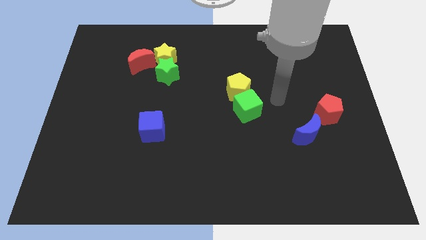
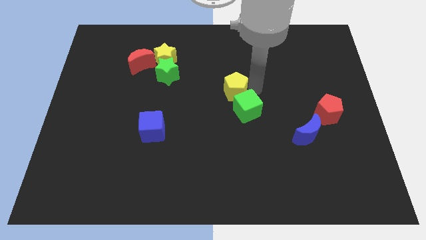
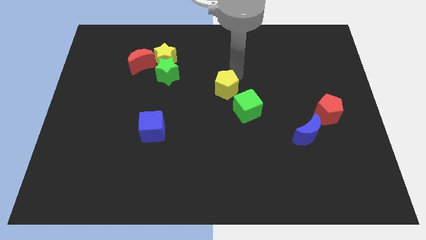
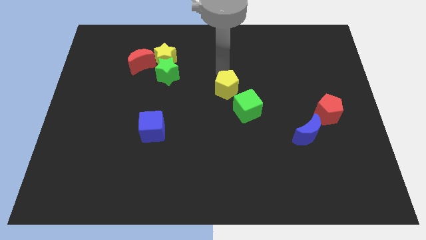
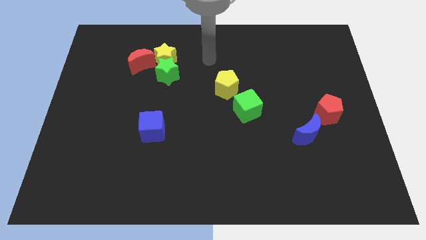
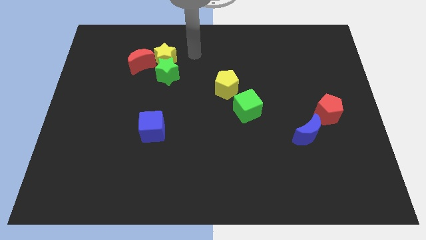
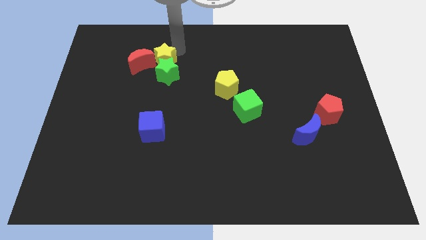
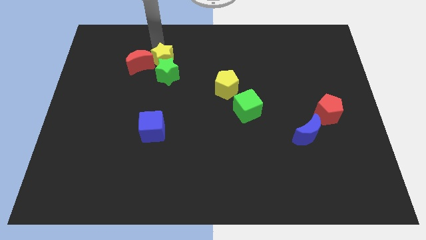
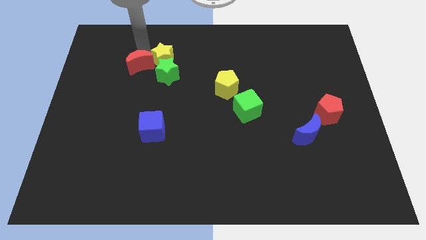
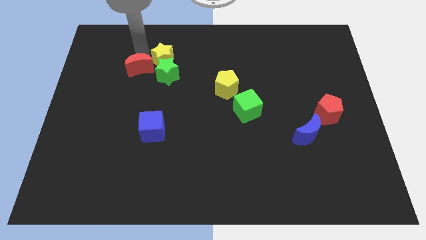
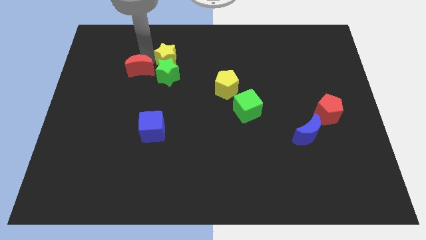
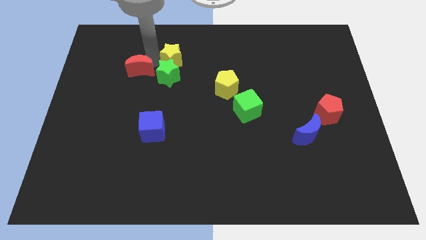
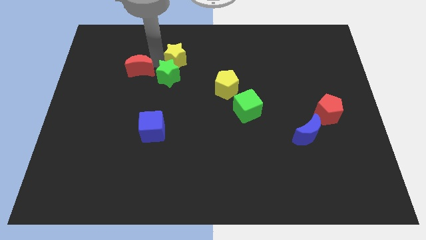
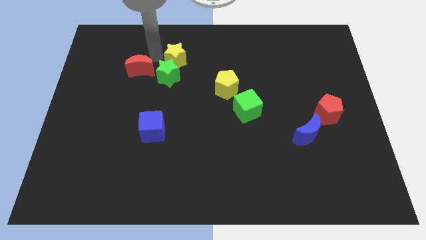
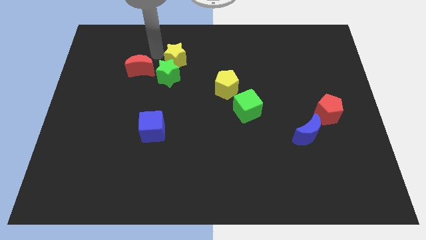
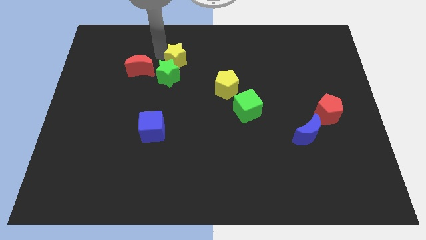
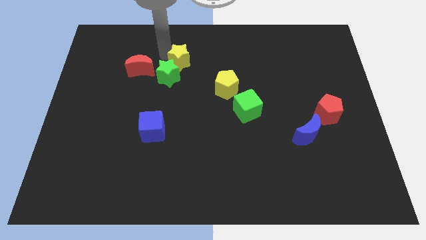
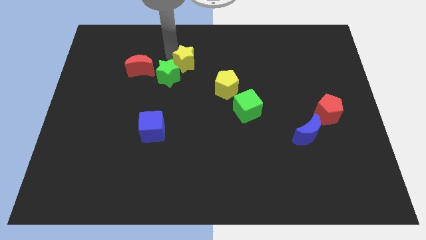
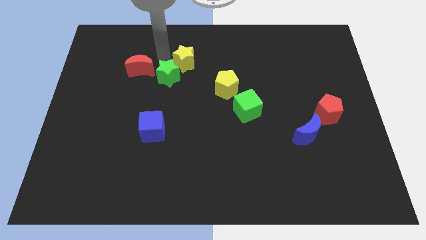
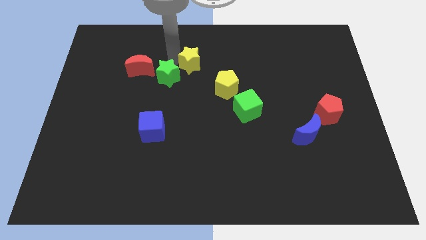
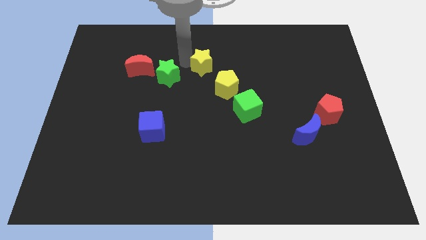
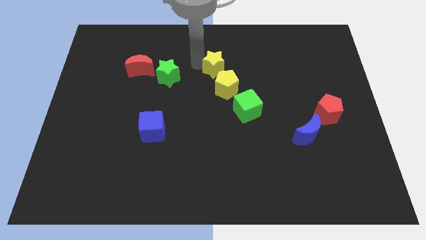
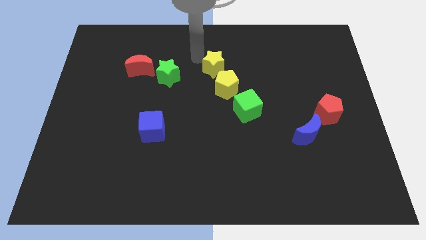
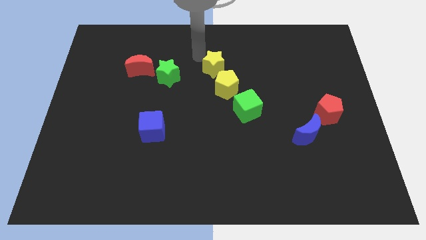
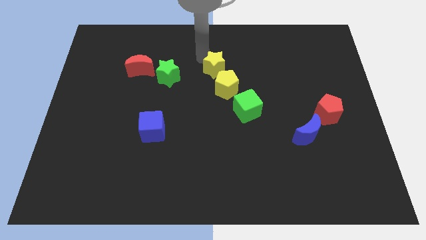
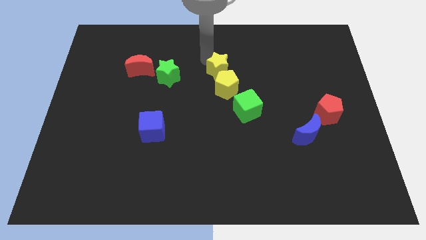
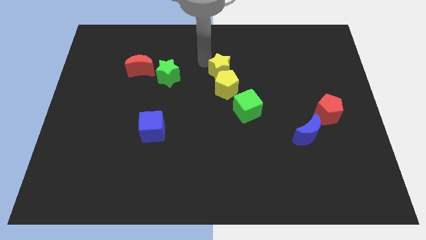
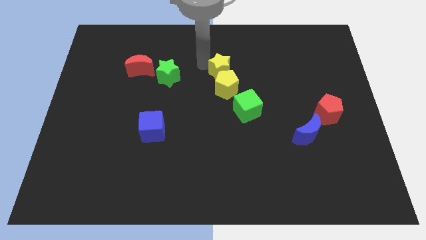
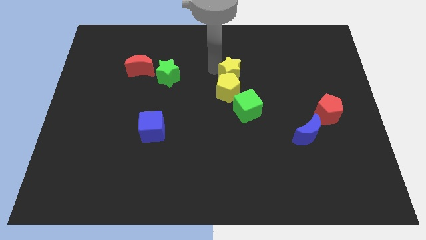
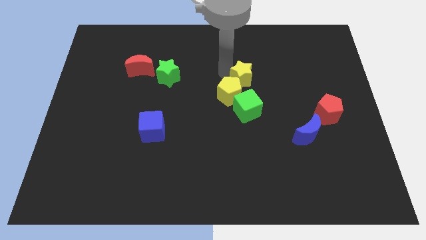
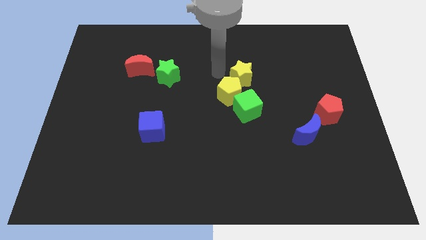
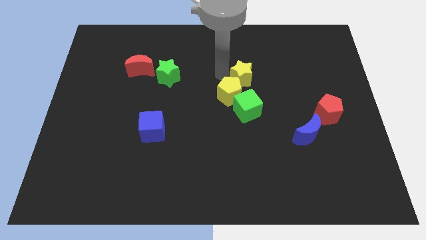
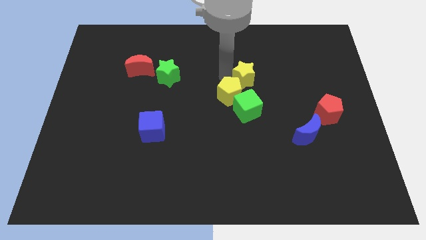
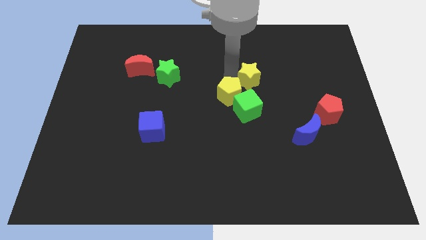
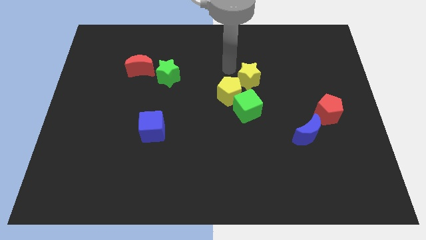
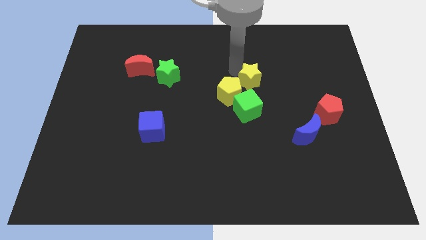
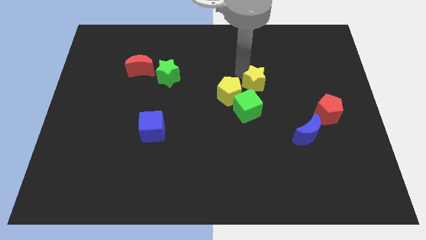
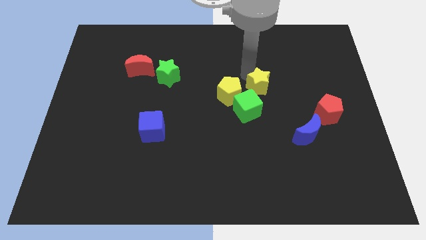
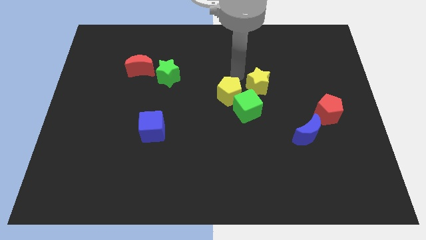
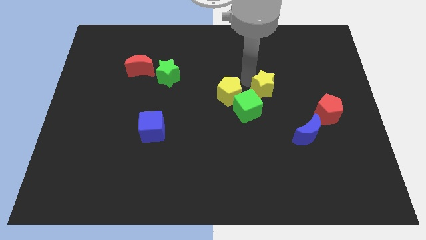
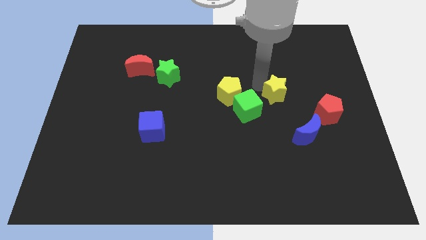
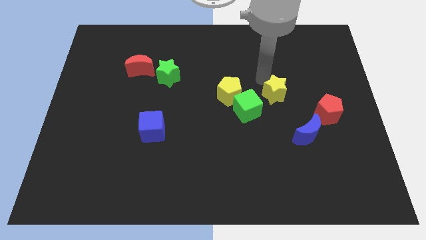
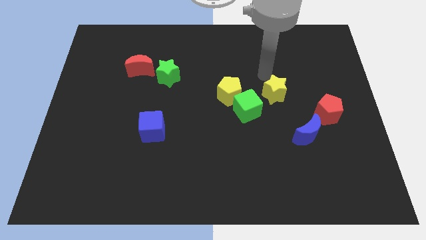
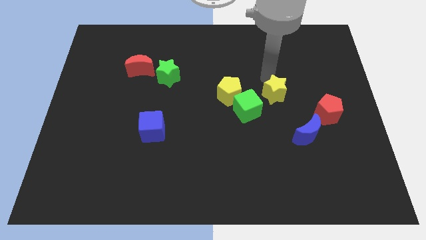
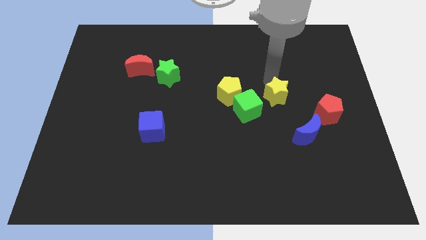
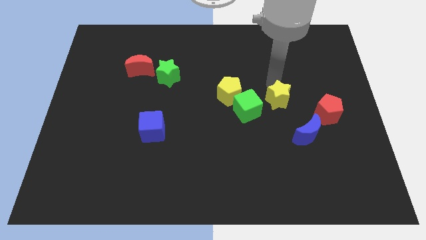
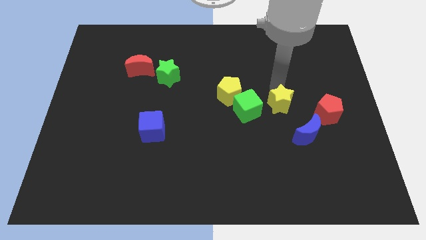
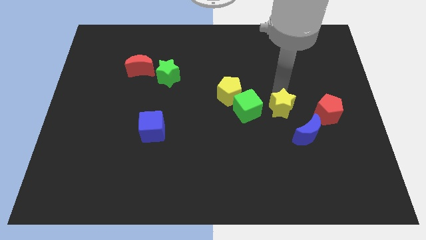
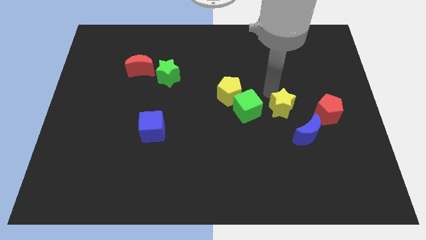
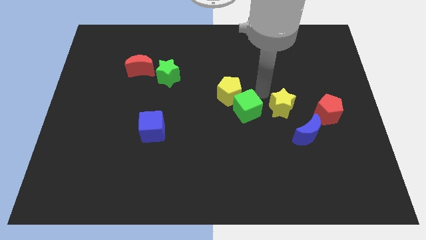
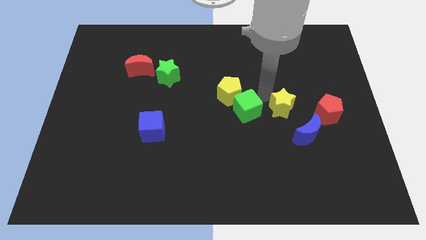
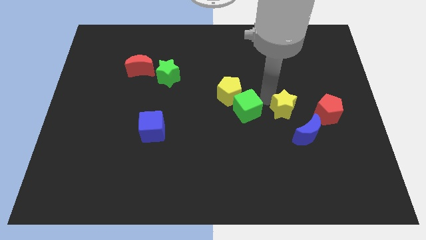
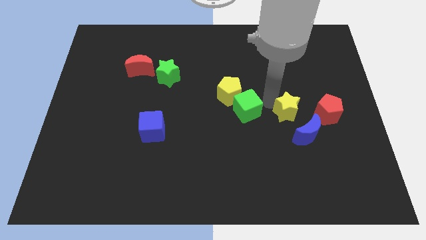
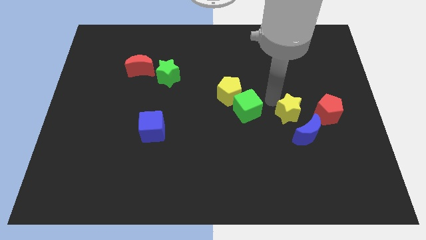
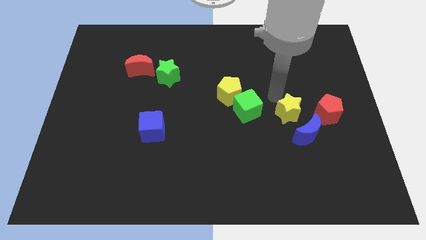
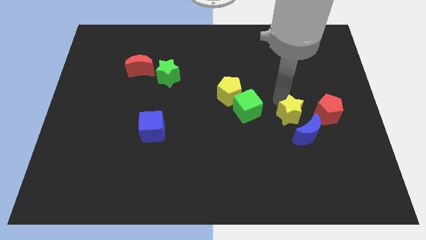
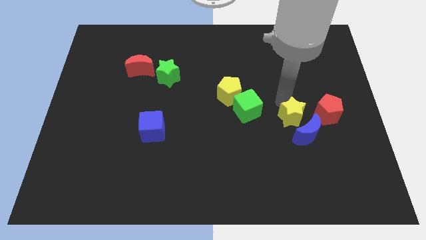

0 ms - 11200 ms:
put the yellow star to the blue moon

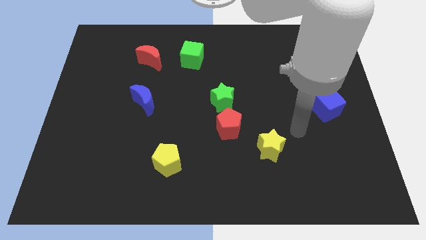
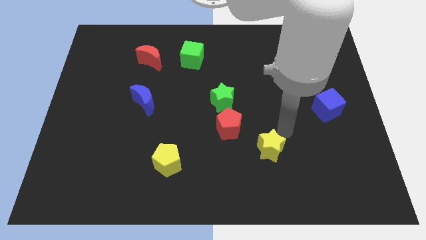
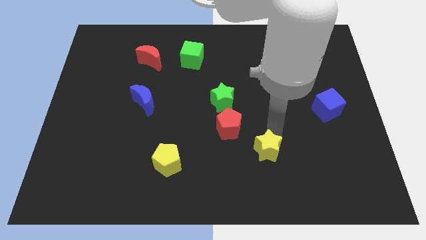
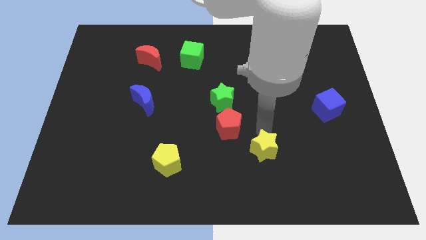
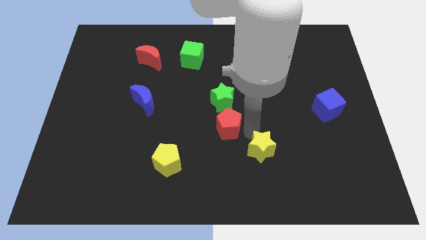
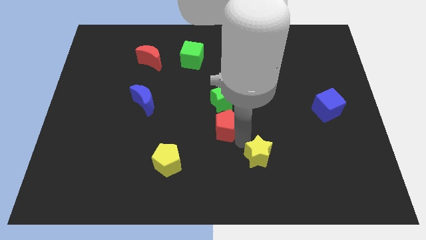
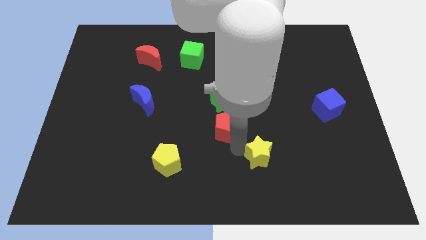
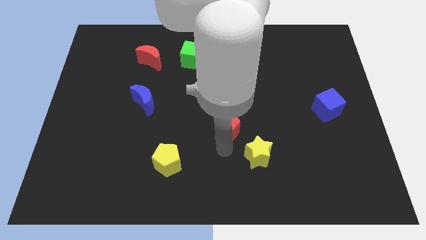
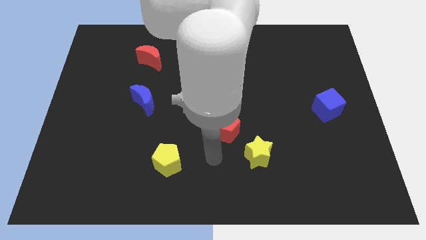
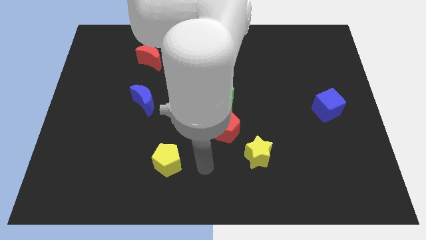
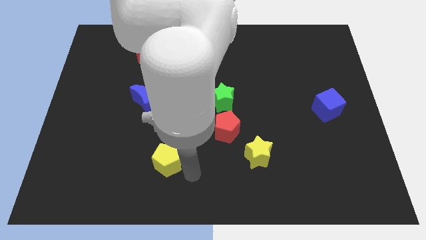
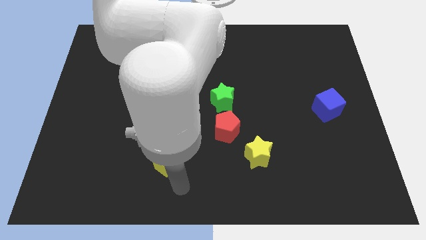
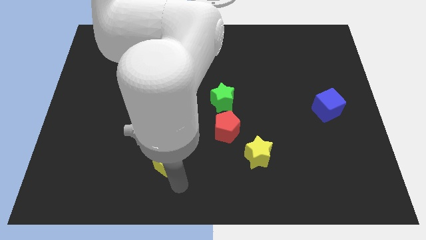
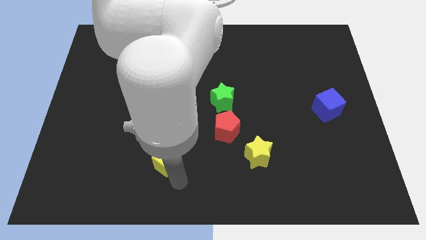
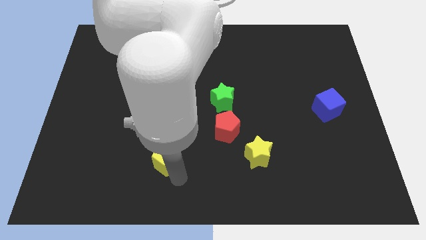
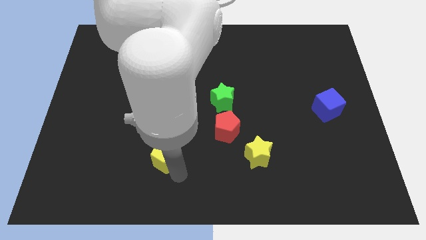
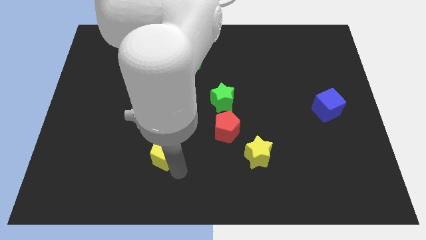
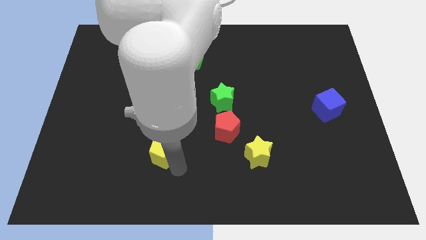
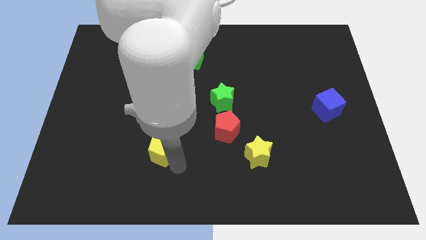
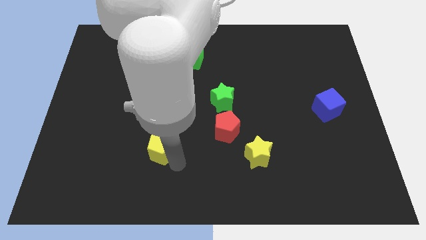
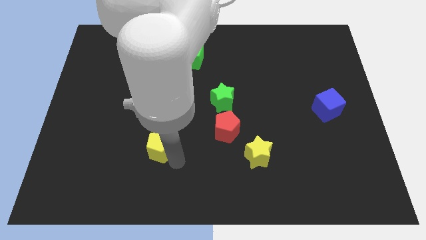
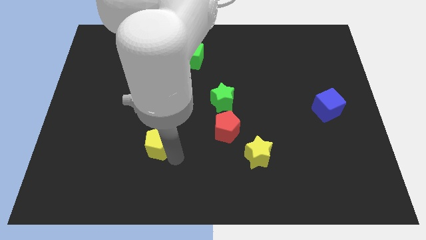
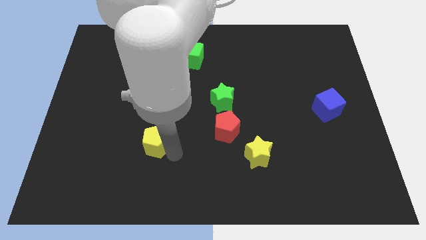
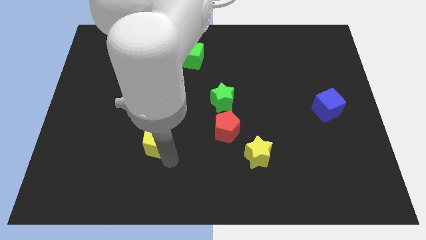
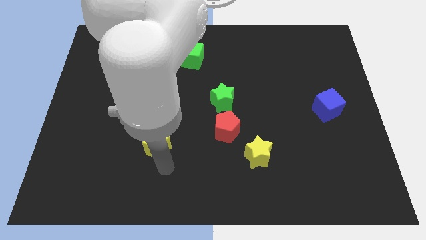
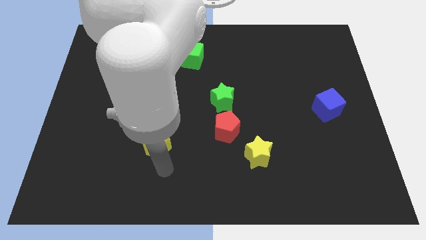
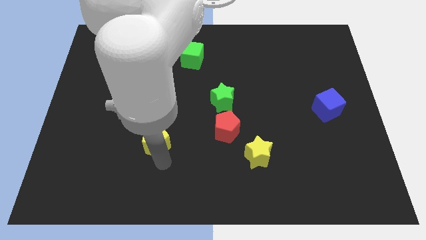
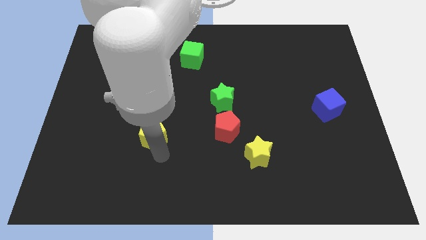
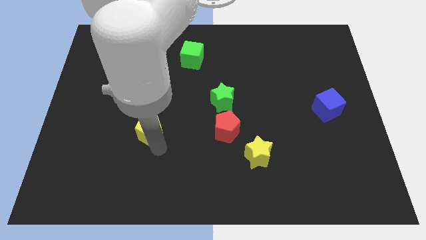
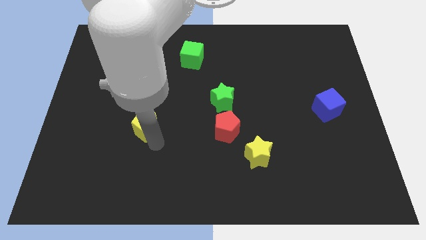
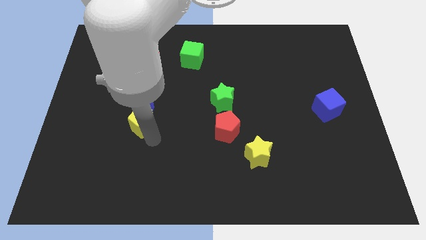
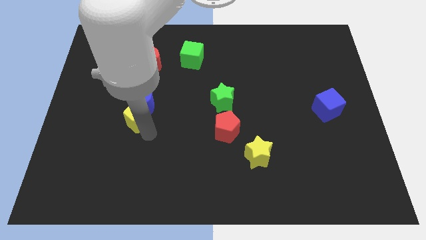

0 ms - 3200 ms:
push the yellow pentagon to the blue moon
